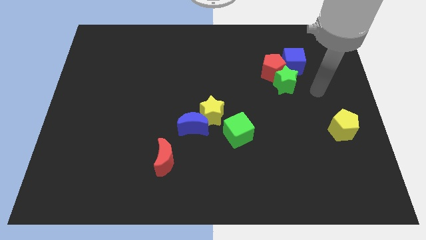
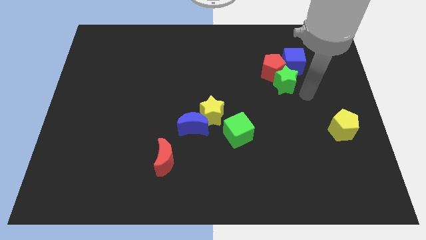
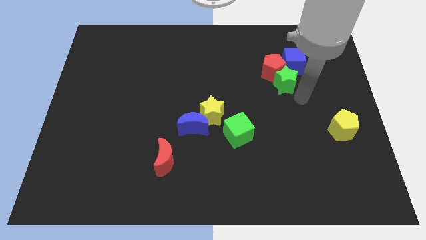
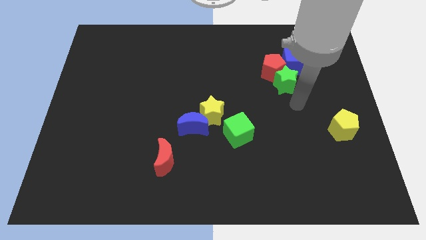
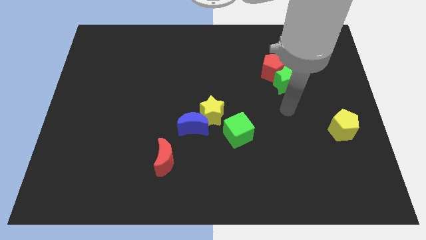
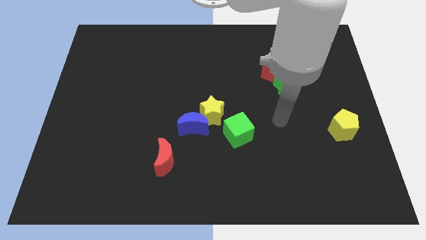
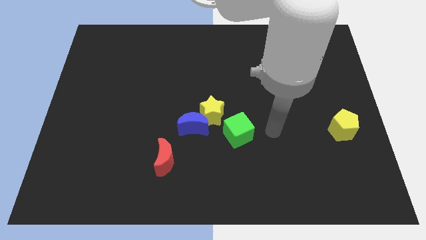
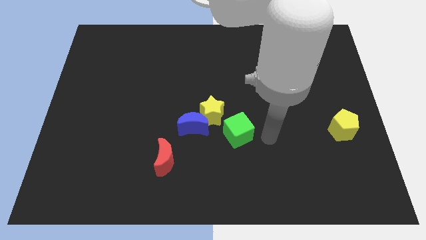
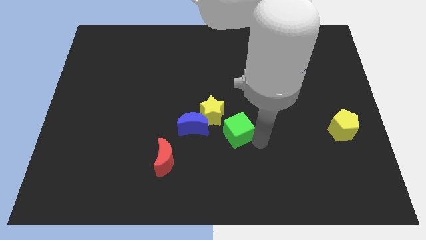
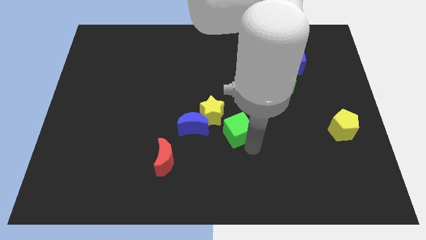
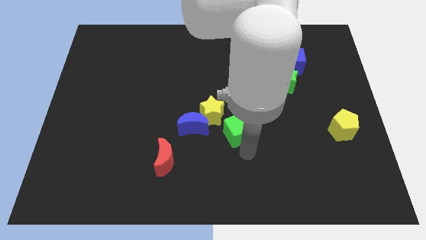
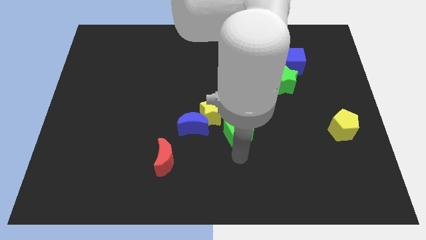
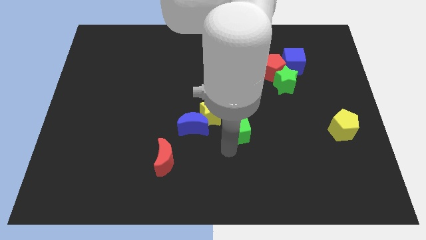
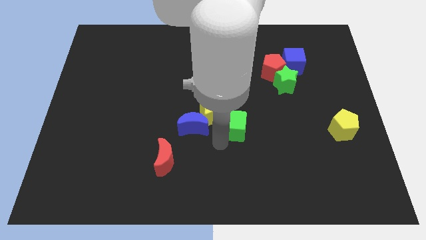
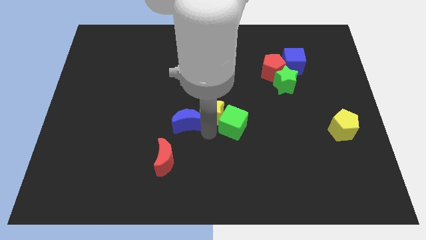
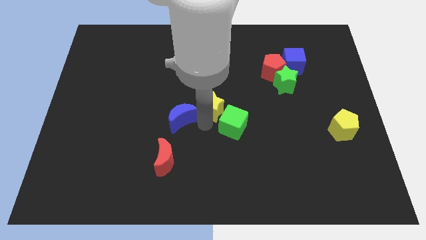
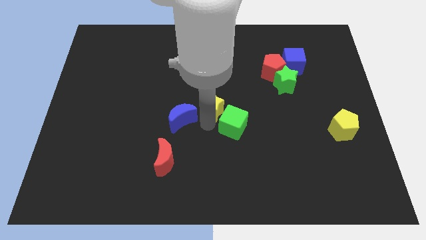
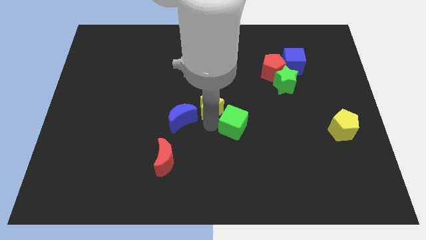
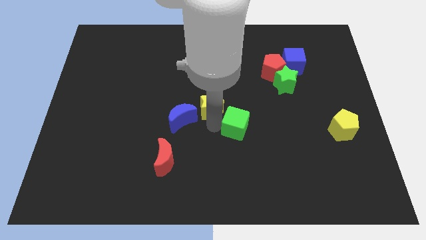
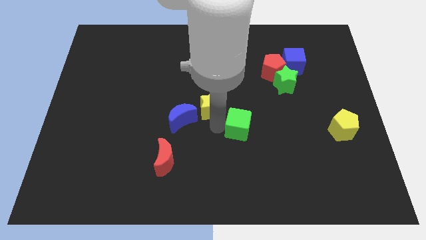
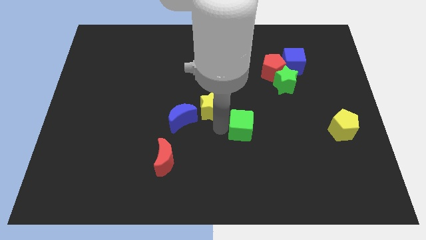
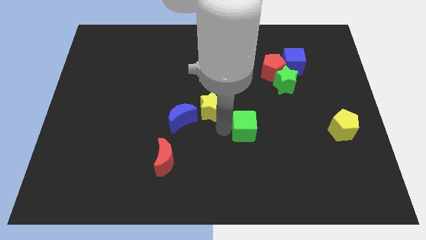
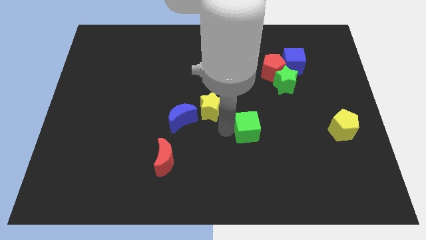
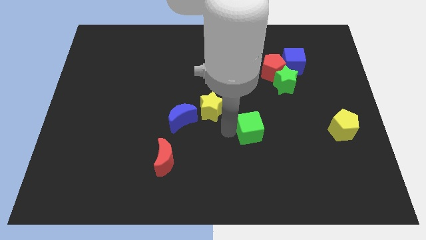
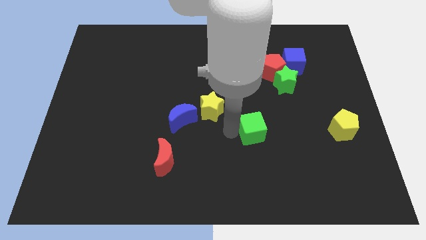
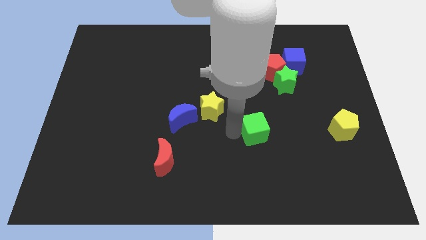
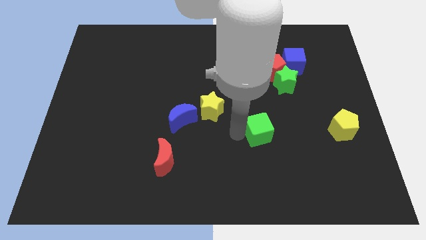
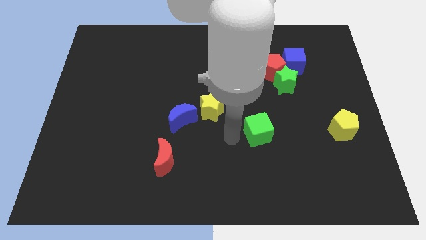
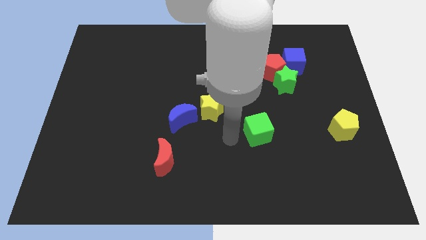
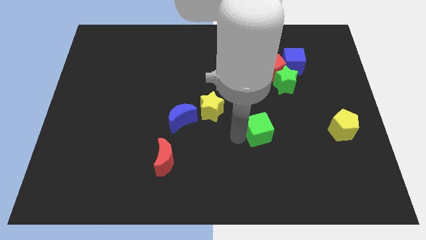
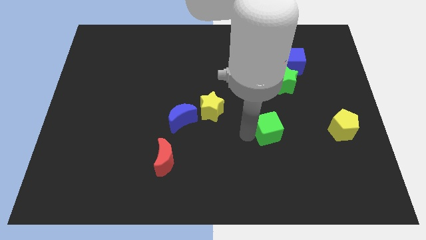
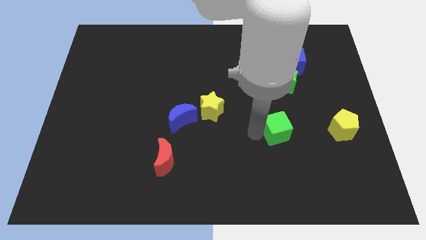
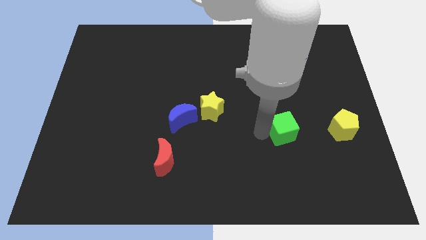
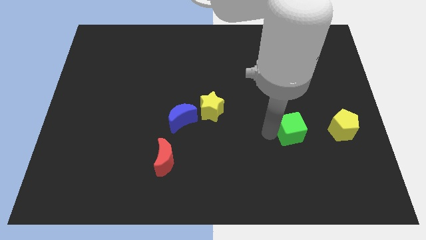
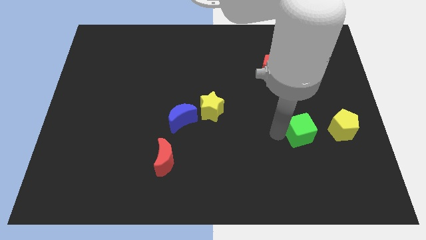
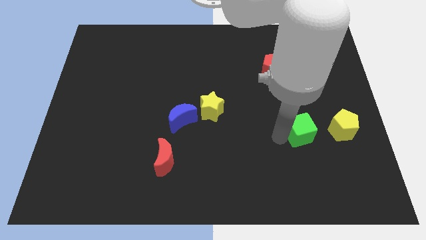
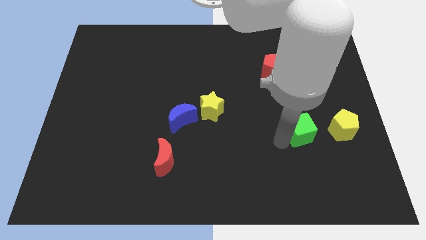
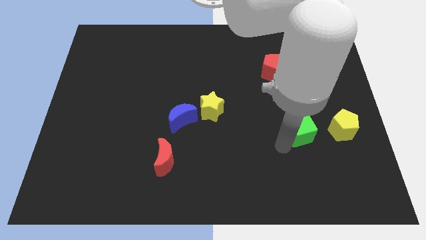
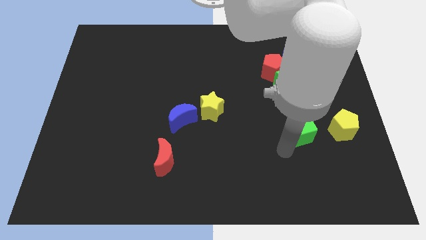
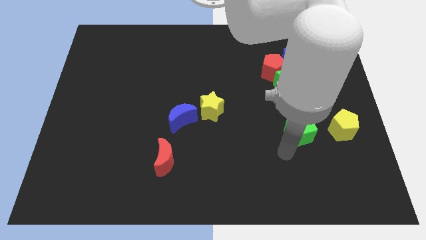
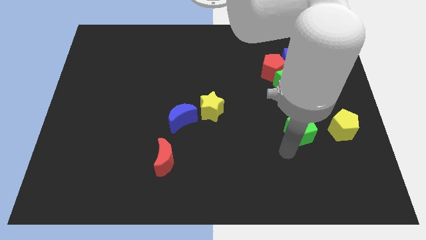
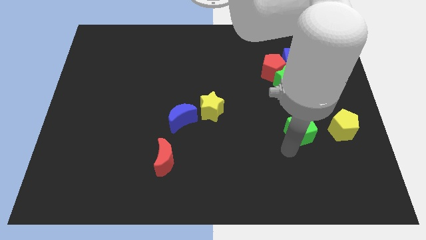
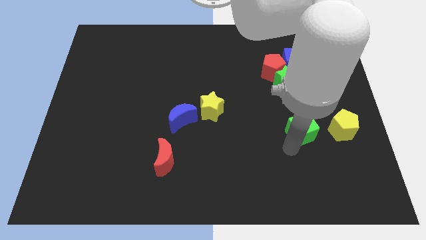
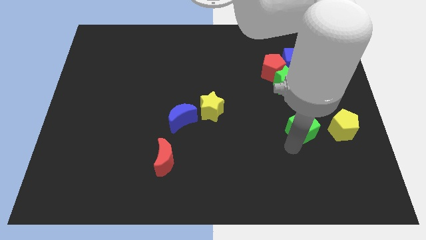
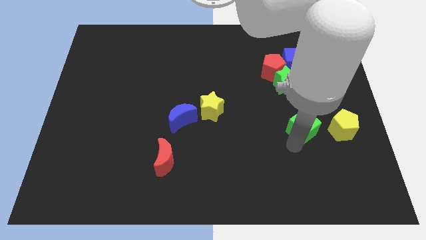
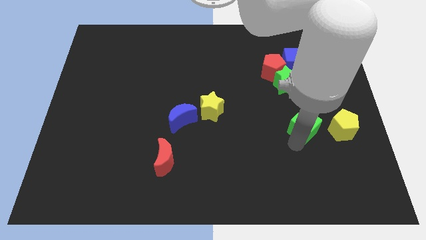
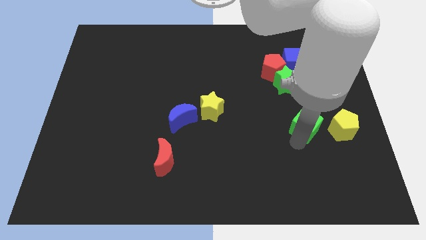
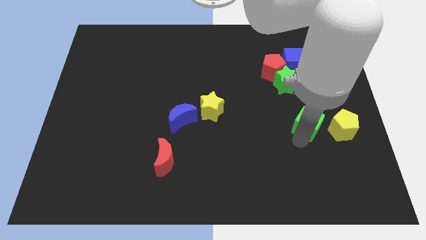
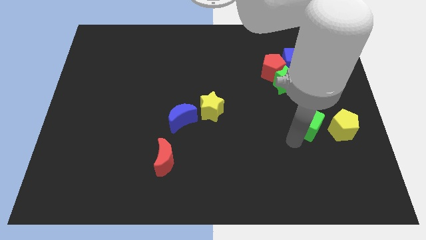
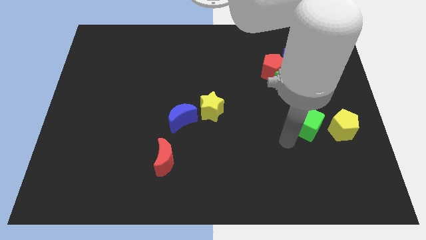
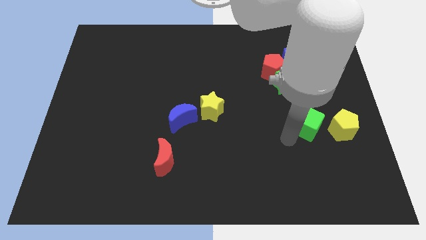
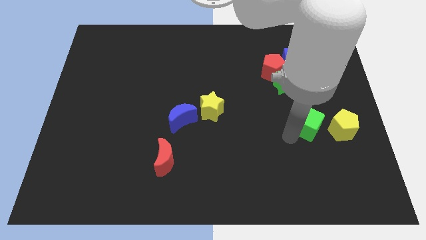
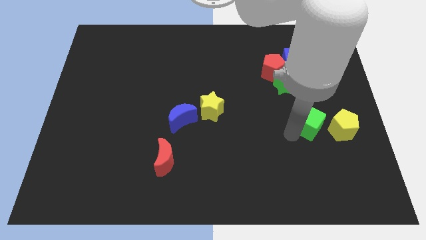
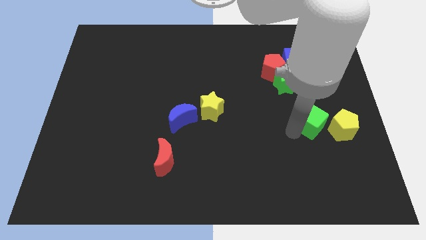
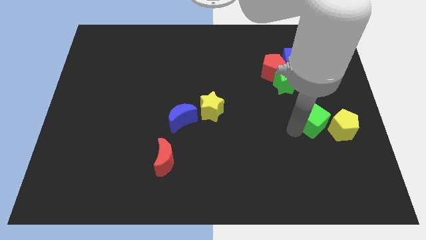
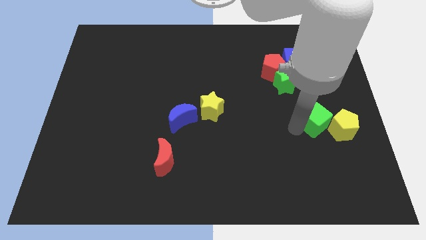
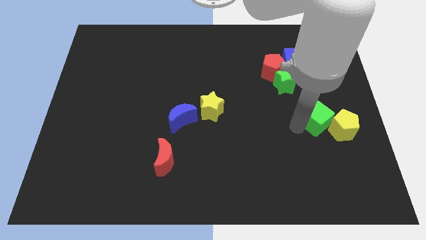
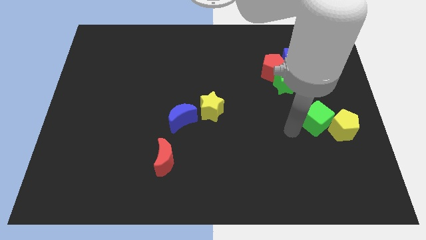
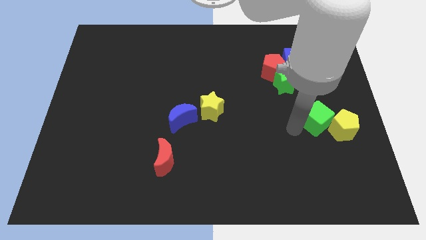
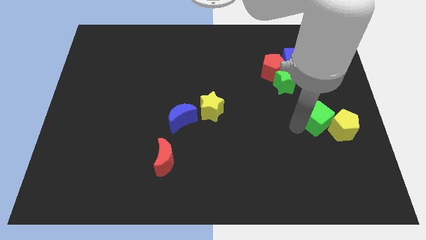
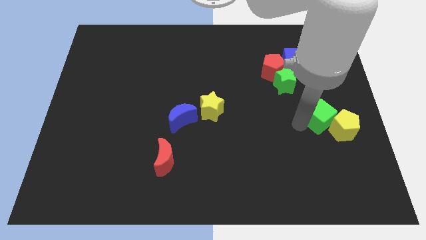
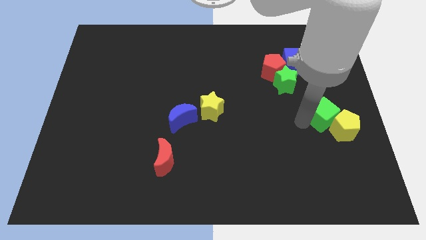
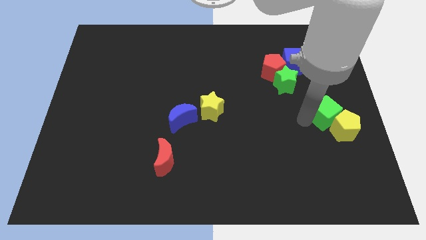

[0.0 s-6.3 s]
slide the green cube to the right side
